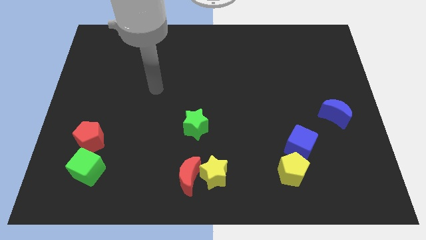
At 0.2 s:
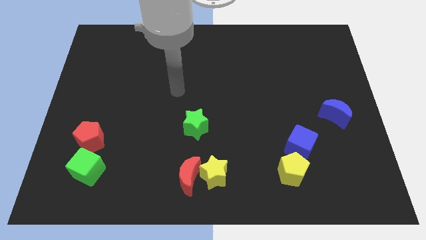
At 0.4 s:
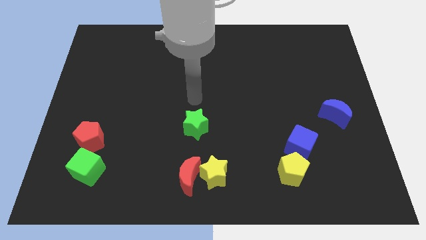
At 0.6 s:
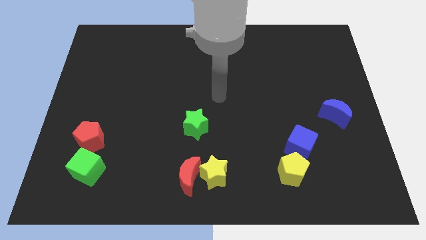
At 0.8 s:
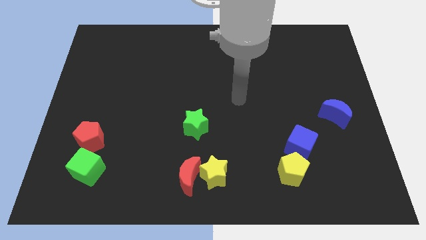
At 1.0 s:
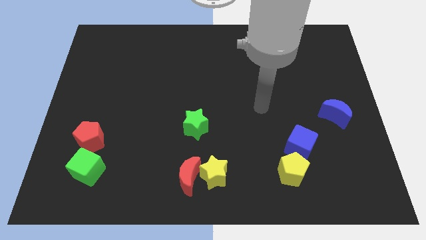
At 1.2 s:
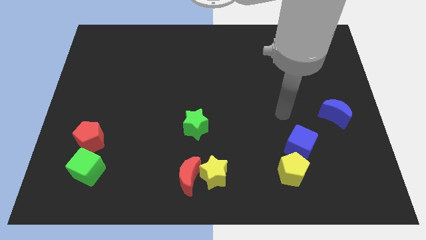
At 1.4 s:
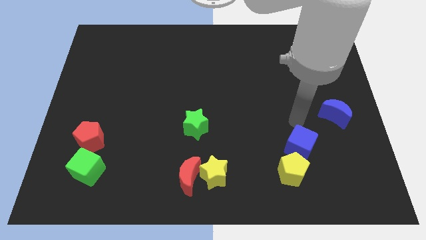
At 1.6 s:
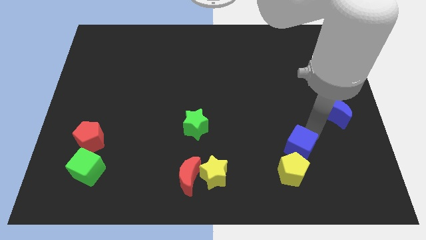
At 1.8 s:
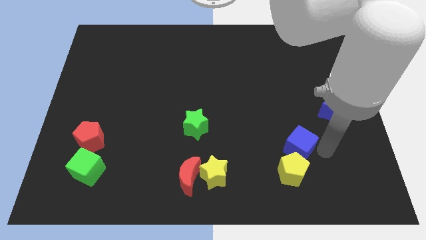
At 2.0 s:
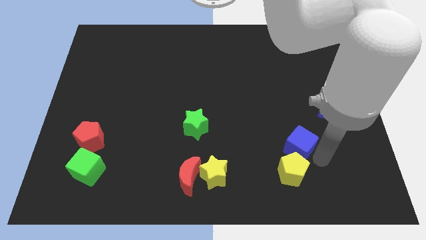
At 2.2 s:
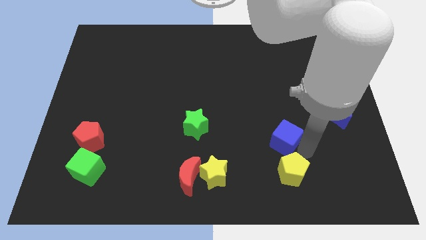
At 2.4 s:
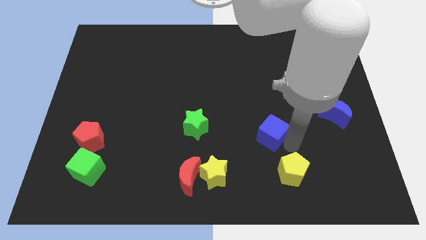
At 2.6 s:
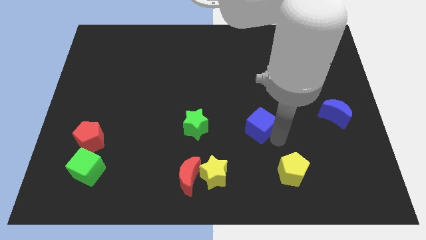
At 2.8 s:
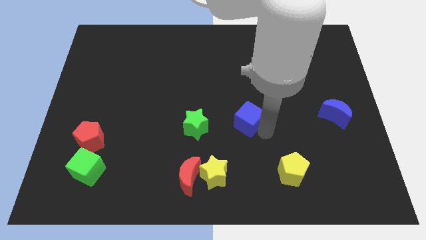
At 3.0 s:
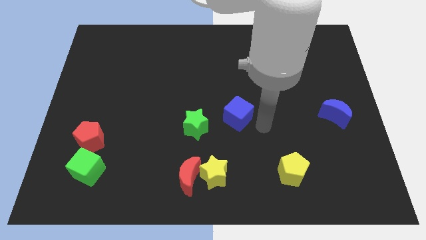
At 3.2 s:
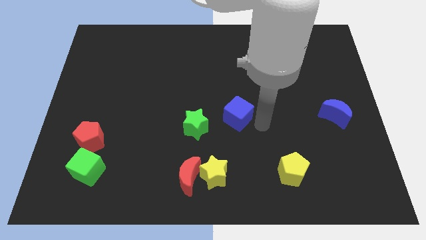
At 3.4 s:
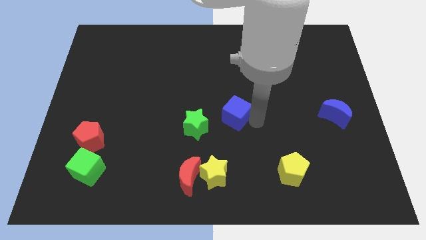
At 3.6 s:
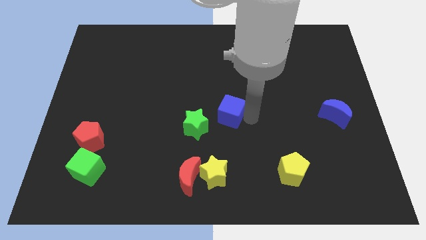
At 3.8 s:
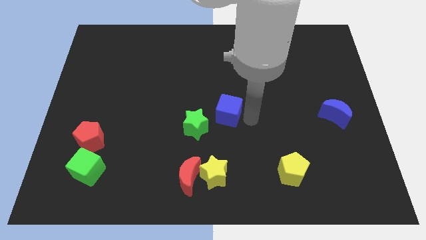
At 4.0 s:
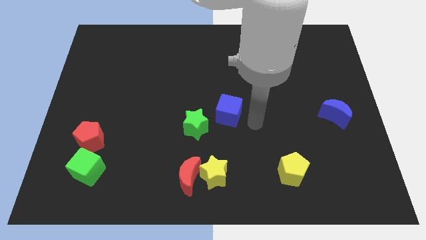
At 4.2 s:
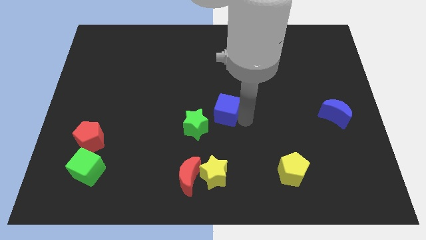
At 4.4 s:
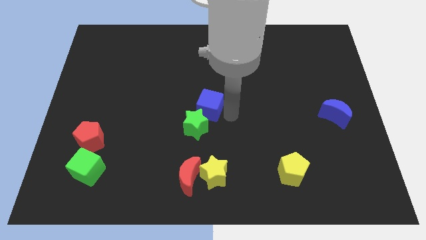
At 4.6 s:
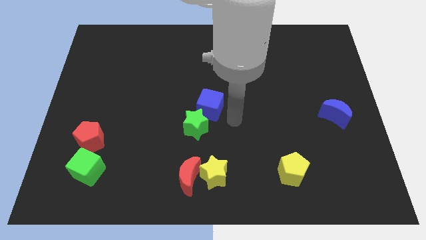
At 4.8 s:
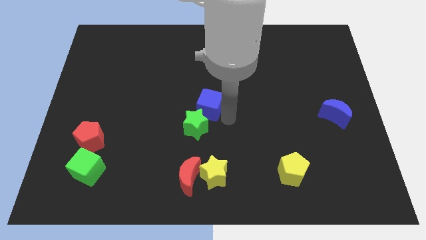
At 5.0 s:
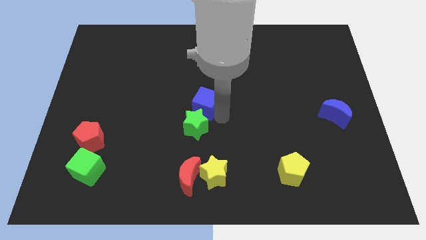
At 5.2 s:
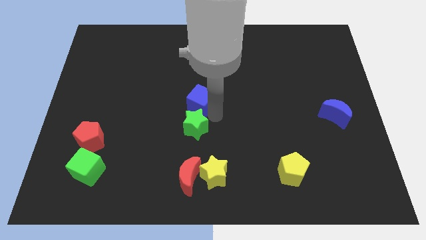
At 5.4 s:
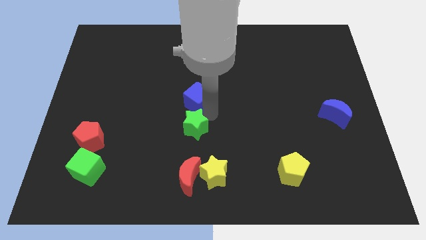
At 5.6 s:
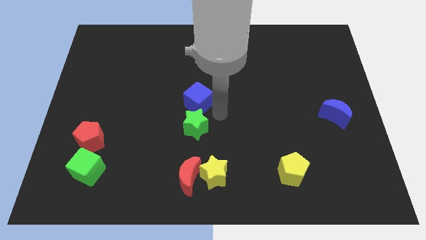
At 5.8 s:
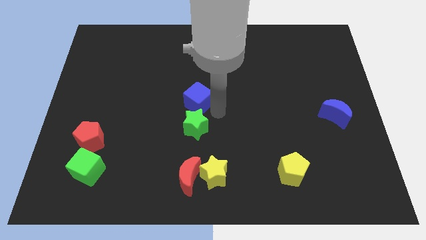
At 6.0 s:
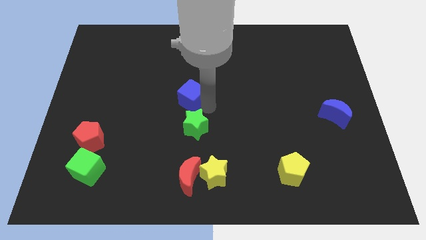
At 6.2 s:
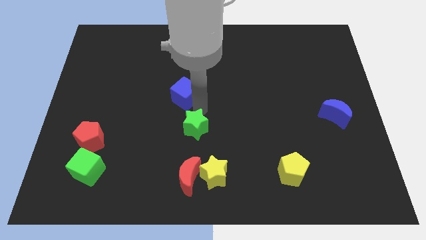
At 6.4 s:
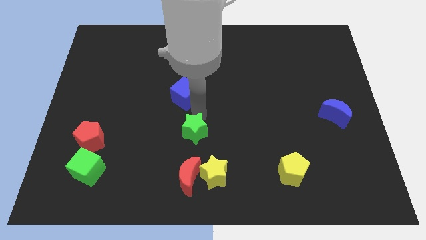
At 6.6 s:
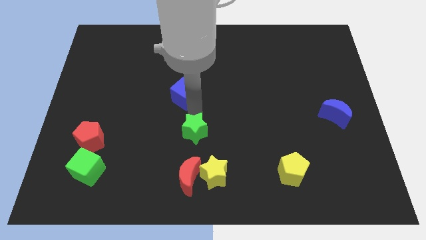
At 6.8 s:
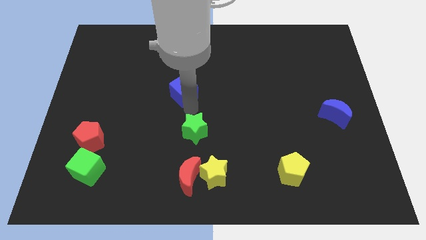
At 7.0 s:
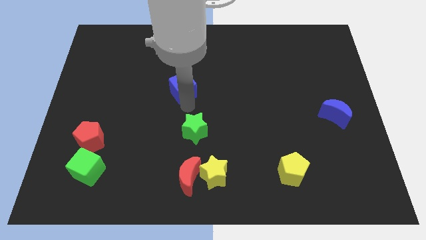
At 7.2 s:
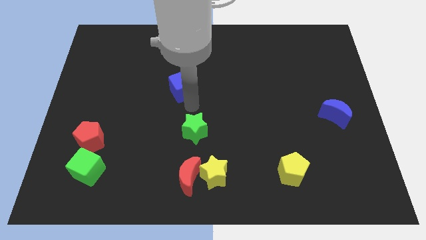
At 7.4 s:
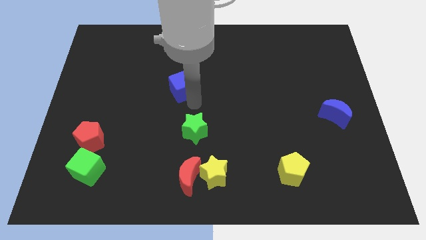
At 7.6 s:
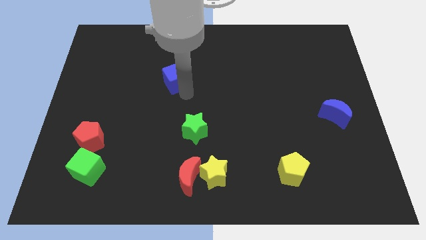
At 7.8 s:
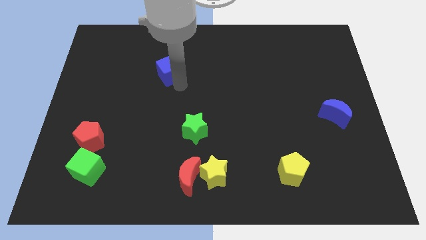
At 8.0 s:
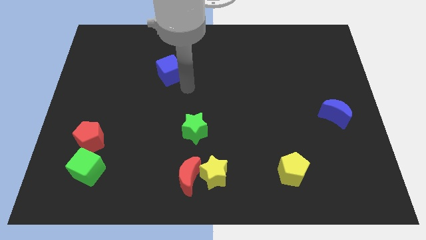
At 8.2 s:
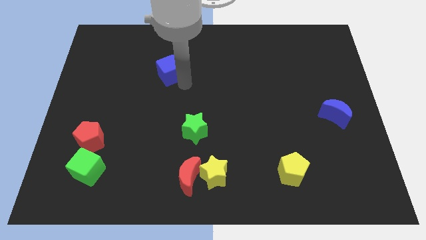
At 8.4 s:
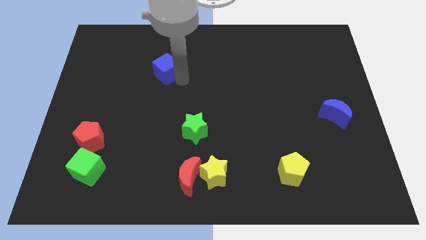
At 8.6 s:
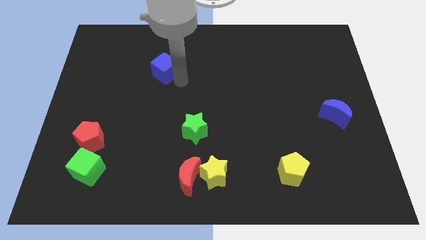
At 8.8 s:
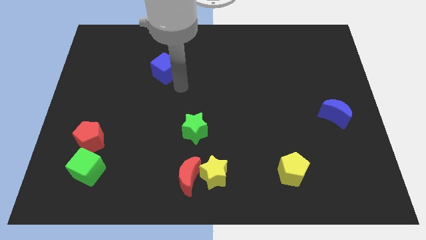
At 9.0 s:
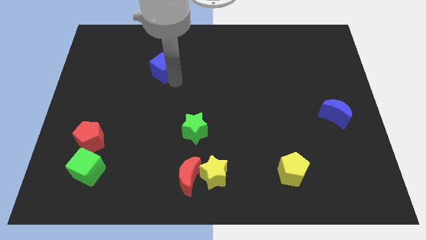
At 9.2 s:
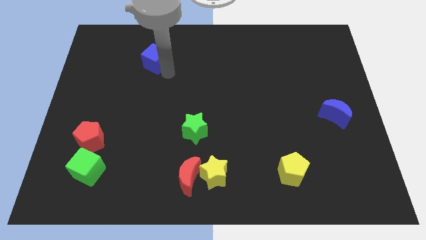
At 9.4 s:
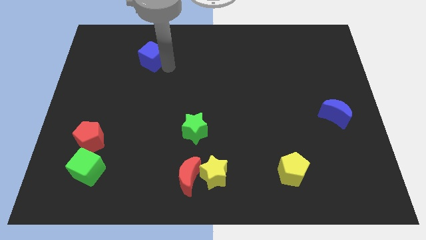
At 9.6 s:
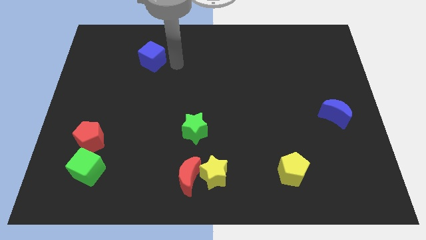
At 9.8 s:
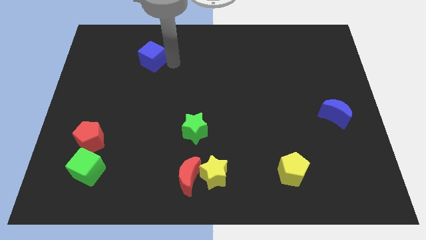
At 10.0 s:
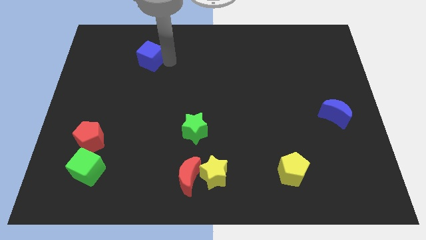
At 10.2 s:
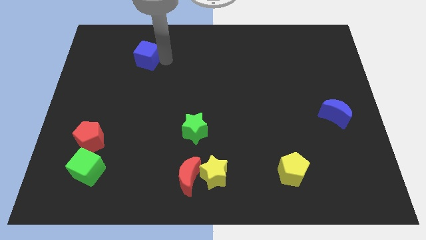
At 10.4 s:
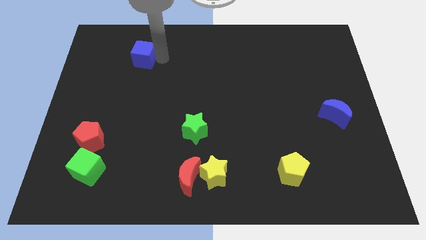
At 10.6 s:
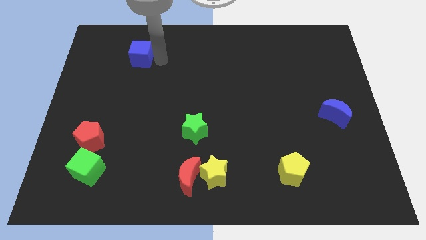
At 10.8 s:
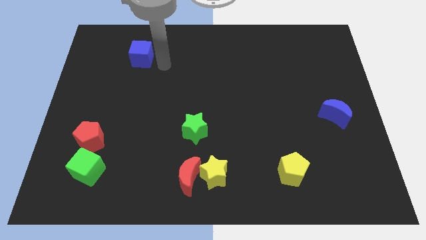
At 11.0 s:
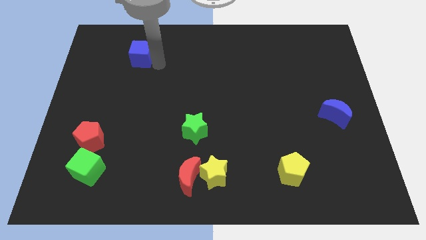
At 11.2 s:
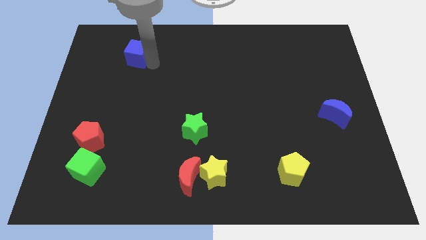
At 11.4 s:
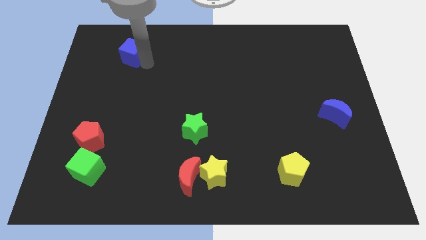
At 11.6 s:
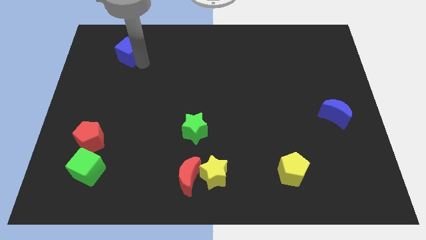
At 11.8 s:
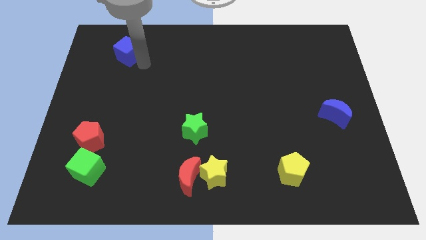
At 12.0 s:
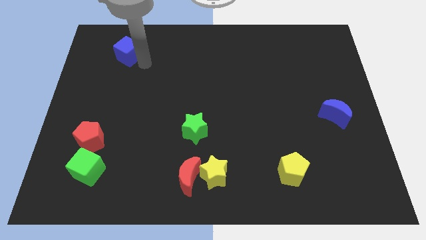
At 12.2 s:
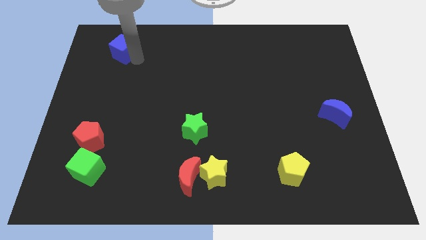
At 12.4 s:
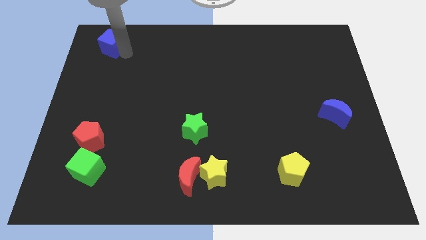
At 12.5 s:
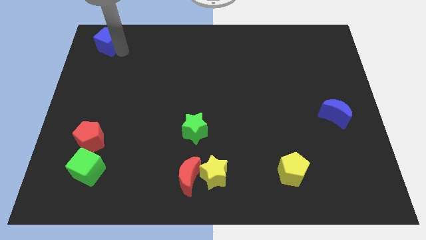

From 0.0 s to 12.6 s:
push the blue cube to the top left
